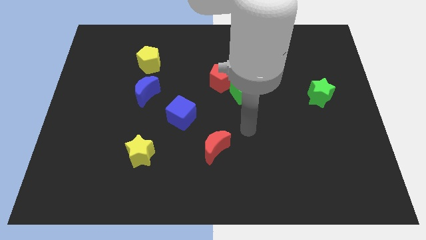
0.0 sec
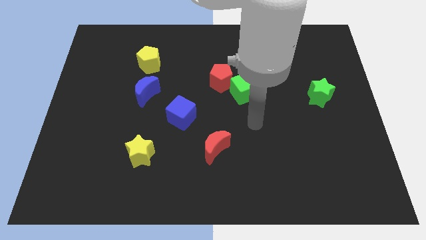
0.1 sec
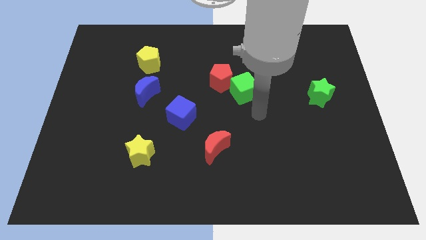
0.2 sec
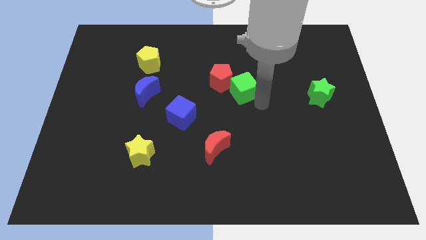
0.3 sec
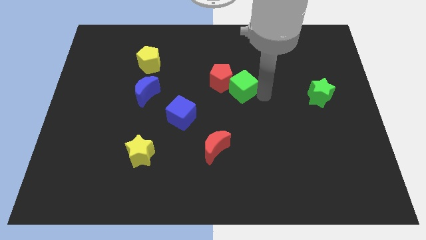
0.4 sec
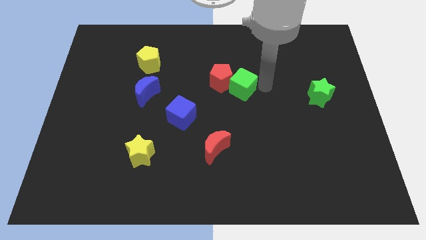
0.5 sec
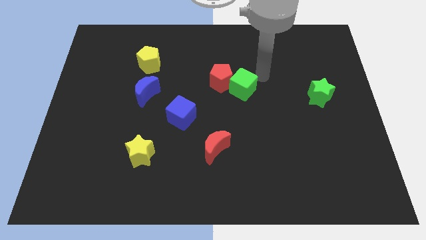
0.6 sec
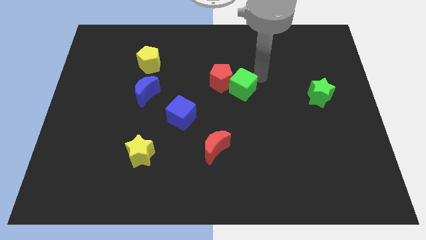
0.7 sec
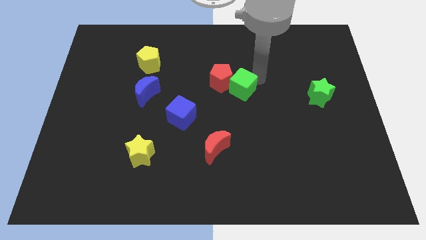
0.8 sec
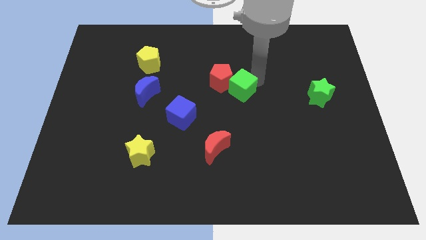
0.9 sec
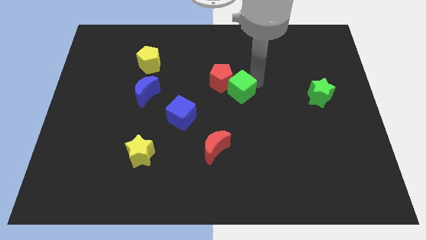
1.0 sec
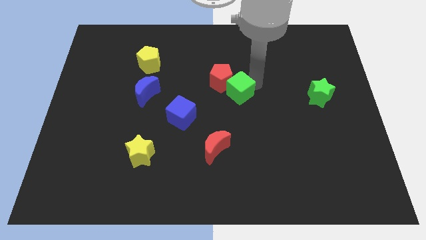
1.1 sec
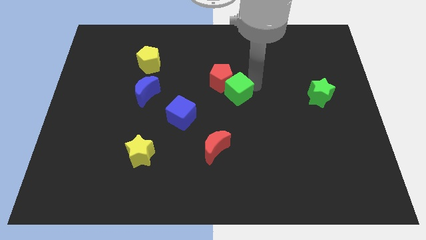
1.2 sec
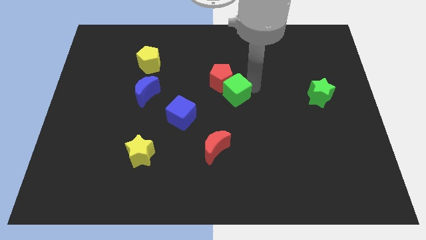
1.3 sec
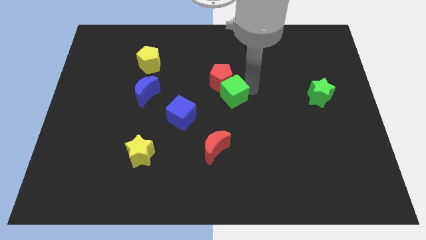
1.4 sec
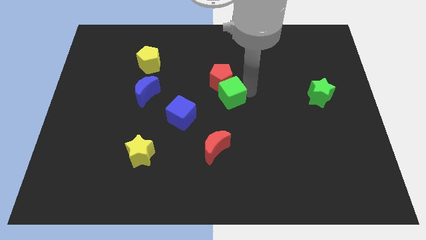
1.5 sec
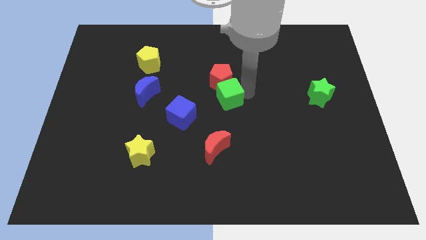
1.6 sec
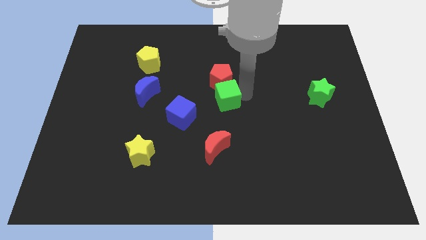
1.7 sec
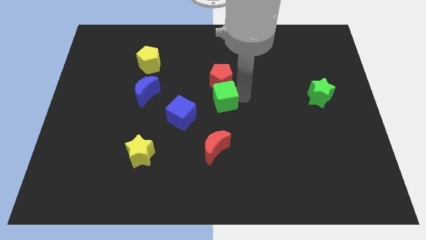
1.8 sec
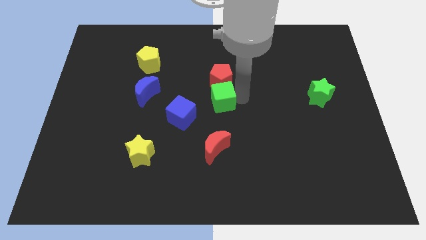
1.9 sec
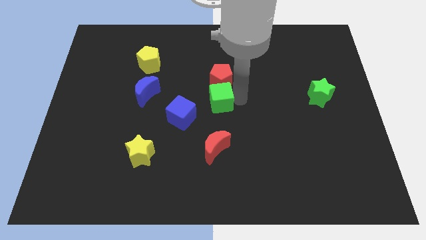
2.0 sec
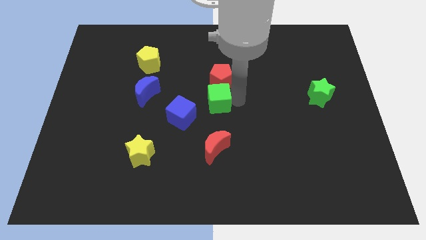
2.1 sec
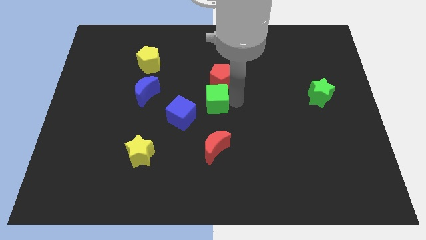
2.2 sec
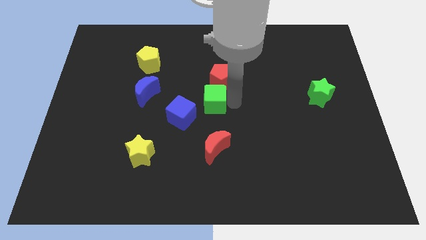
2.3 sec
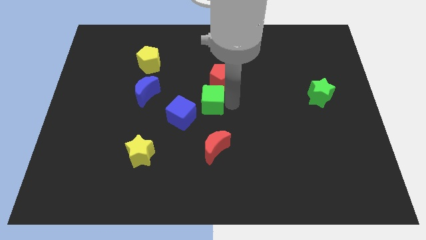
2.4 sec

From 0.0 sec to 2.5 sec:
slightly slide the green cube to the left

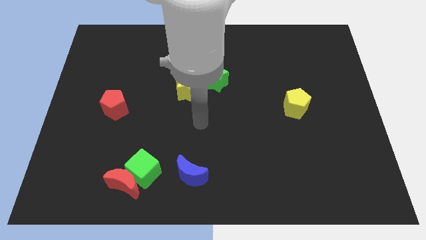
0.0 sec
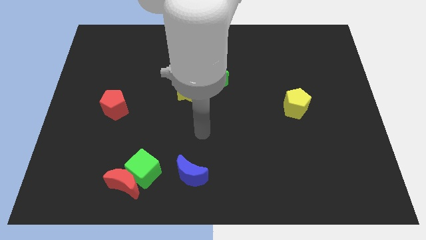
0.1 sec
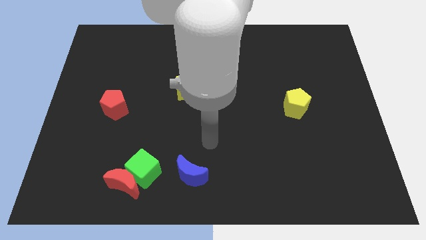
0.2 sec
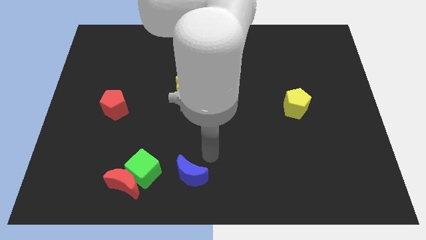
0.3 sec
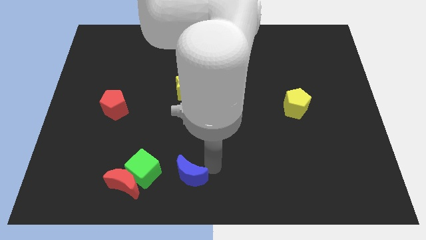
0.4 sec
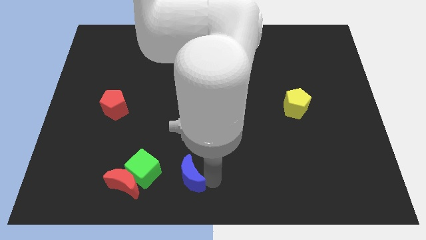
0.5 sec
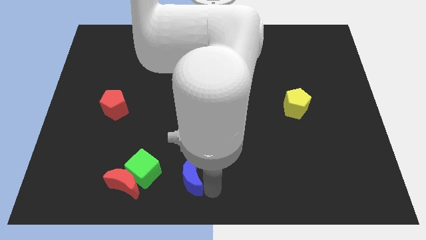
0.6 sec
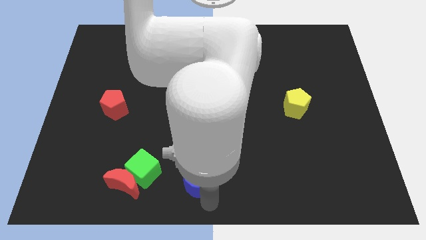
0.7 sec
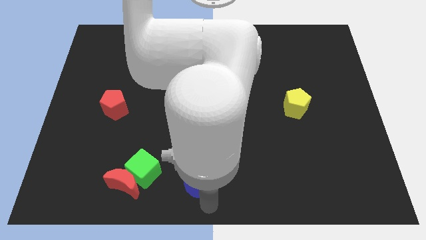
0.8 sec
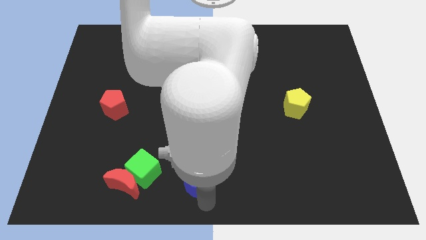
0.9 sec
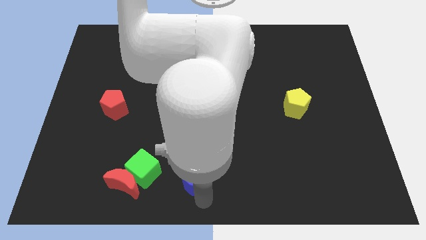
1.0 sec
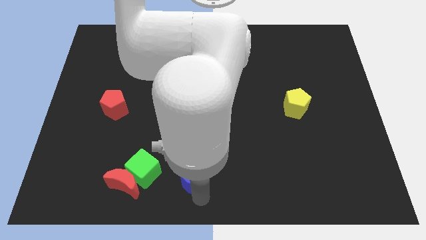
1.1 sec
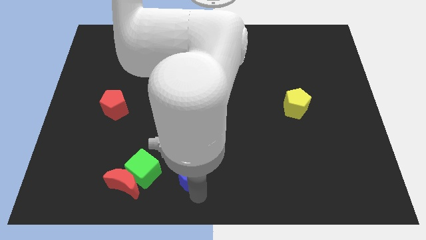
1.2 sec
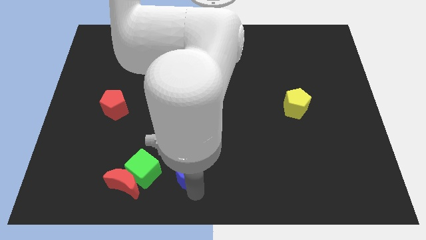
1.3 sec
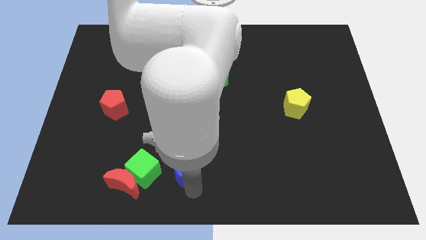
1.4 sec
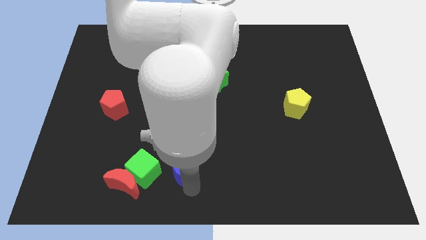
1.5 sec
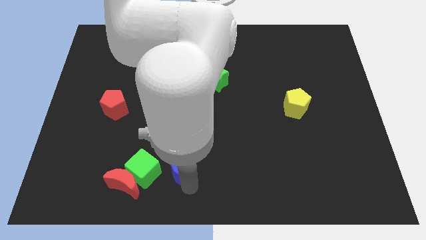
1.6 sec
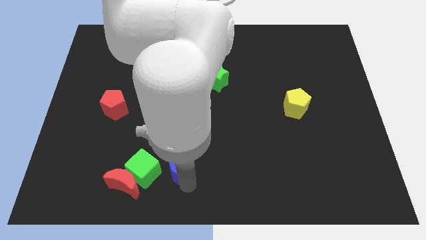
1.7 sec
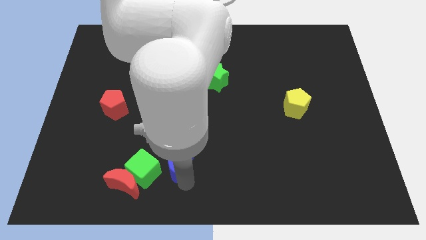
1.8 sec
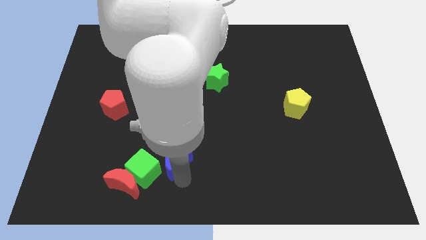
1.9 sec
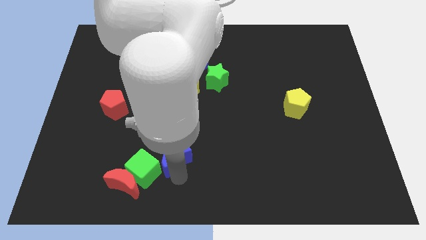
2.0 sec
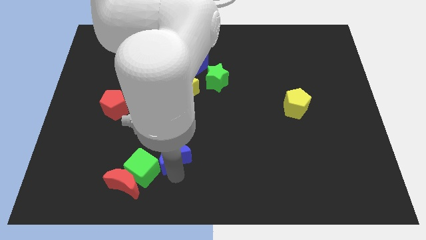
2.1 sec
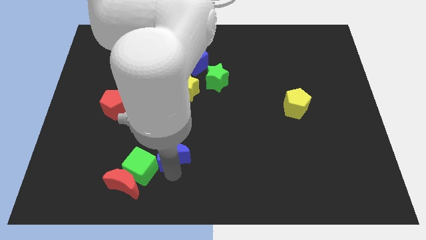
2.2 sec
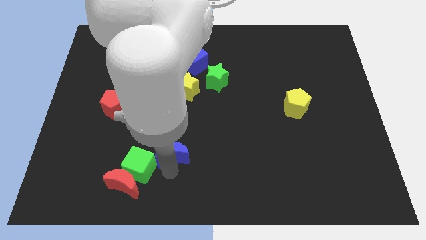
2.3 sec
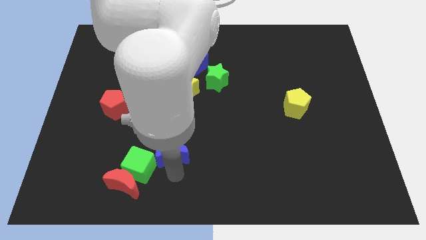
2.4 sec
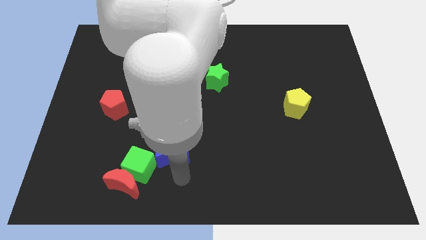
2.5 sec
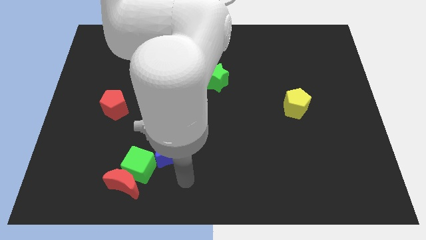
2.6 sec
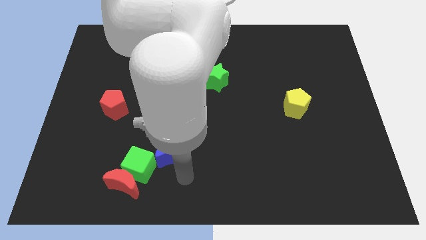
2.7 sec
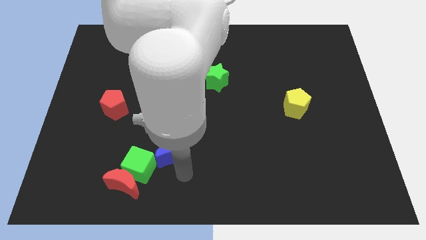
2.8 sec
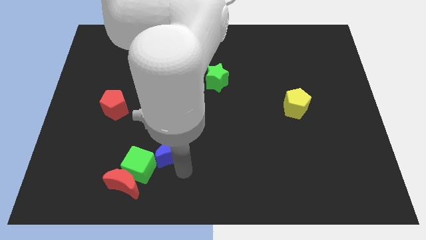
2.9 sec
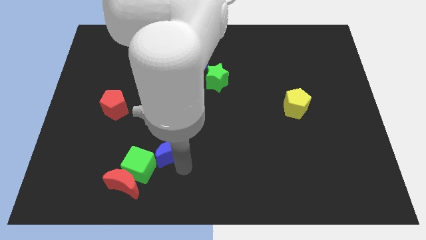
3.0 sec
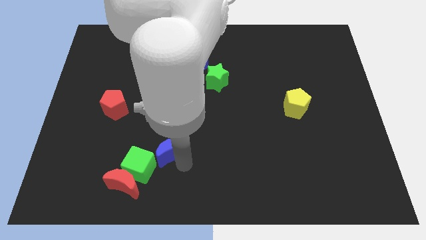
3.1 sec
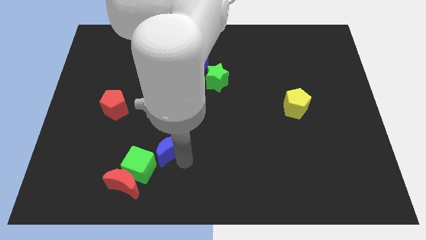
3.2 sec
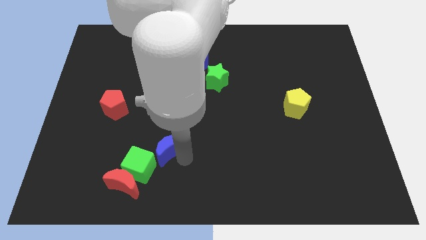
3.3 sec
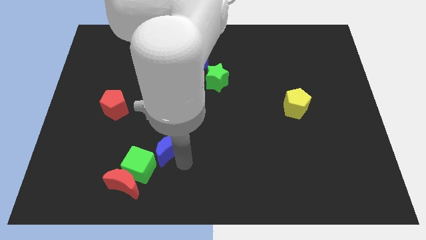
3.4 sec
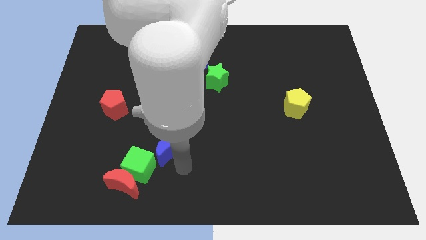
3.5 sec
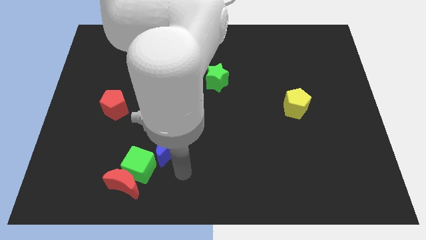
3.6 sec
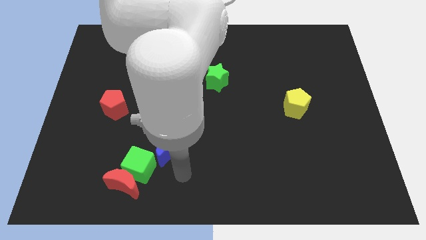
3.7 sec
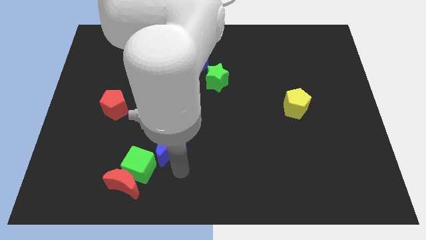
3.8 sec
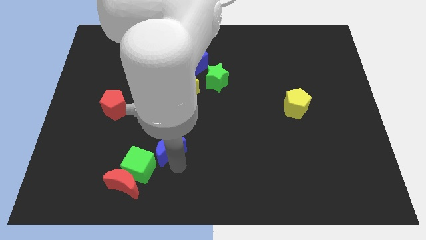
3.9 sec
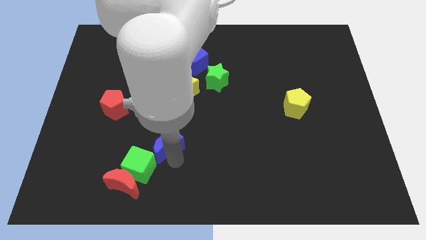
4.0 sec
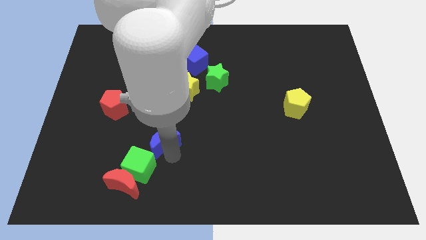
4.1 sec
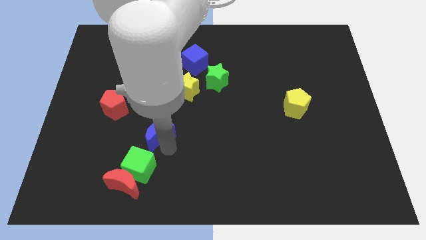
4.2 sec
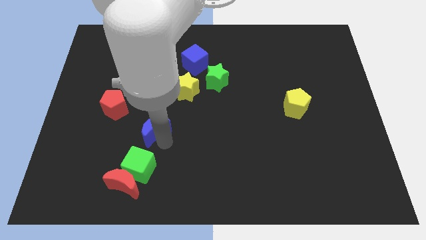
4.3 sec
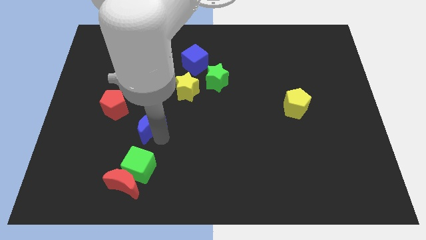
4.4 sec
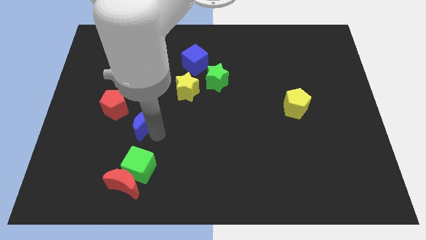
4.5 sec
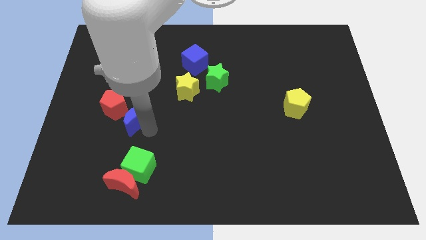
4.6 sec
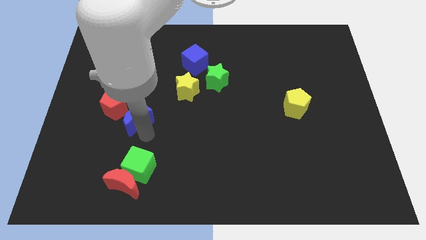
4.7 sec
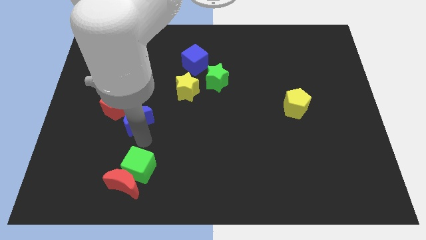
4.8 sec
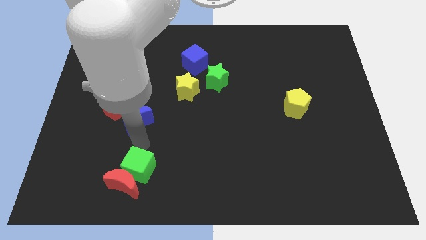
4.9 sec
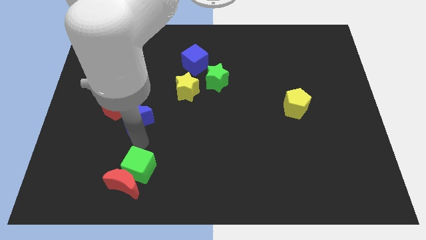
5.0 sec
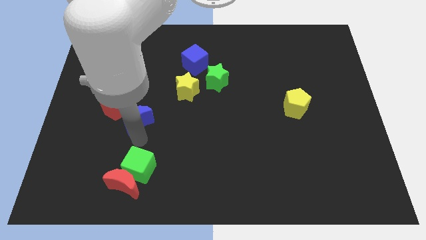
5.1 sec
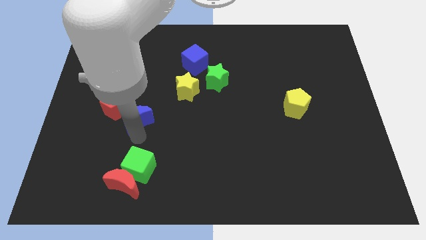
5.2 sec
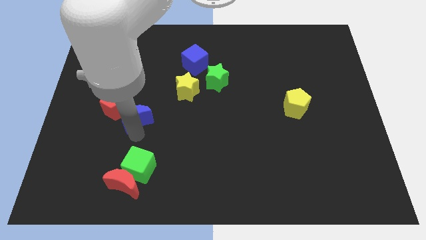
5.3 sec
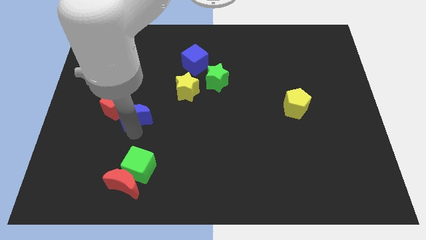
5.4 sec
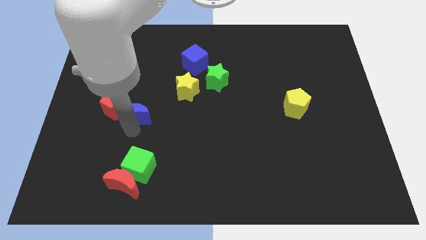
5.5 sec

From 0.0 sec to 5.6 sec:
slide the blue moon upwards and then left
